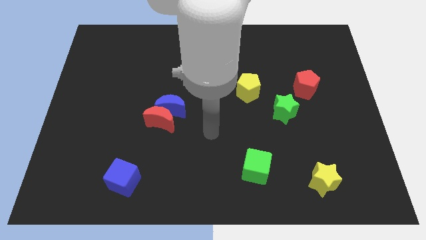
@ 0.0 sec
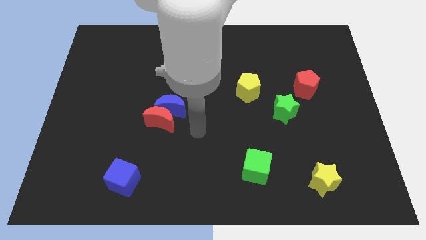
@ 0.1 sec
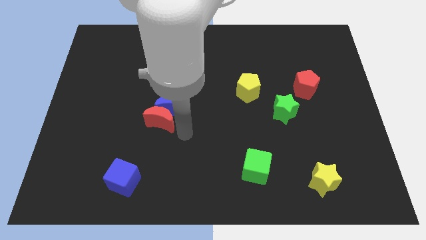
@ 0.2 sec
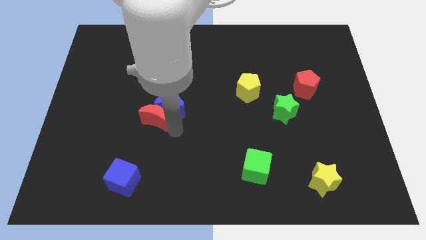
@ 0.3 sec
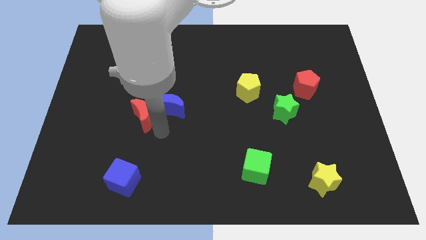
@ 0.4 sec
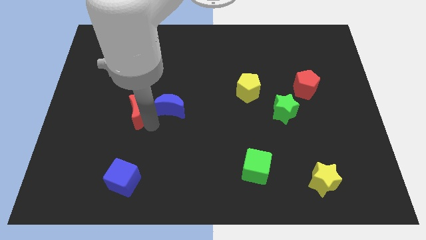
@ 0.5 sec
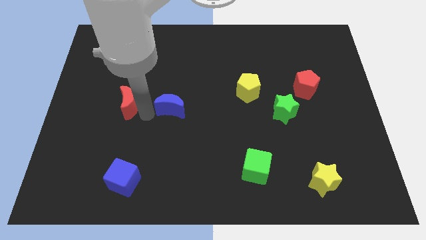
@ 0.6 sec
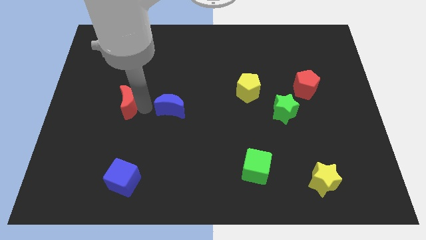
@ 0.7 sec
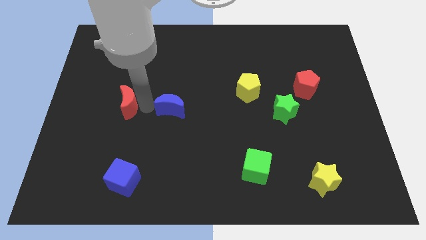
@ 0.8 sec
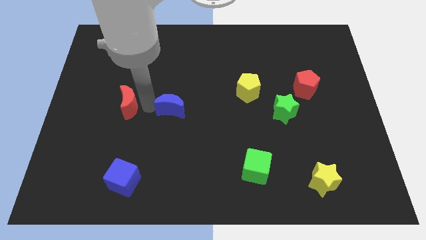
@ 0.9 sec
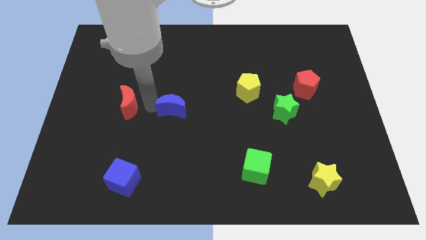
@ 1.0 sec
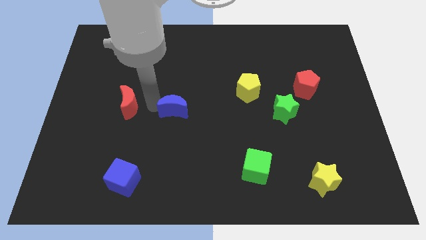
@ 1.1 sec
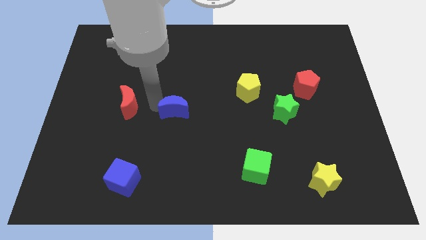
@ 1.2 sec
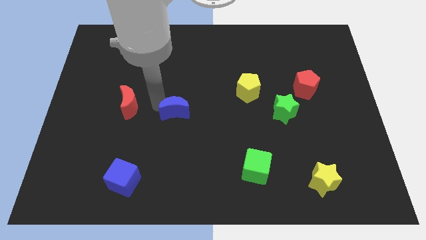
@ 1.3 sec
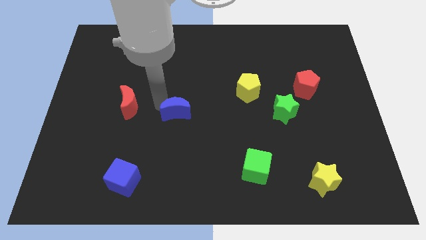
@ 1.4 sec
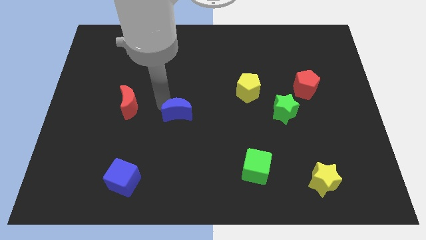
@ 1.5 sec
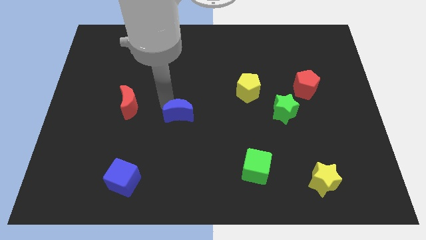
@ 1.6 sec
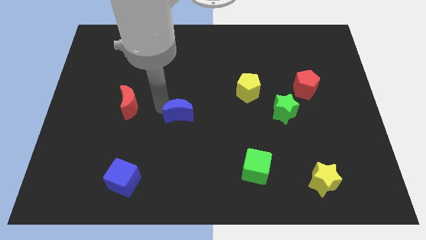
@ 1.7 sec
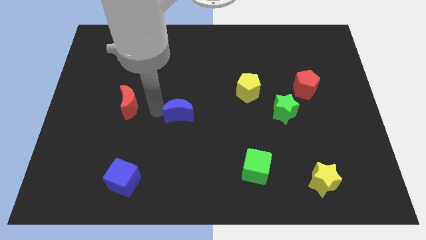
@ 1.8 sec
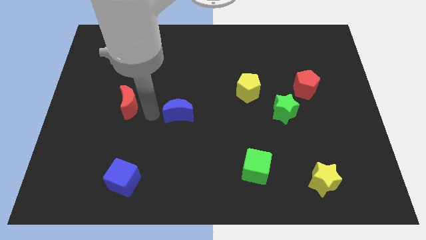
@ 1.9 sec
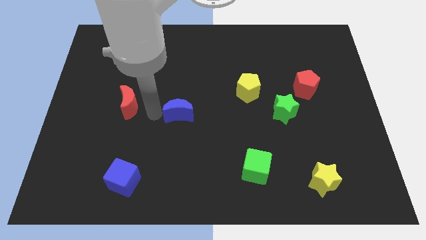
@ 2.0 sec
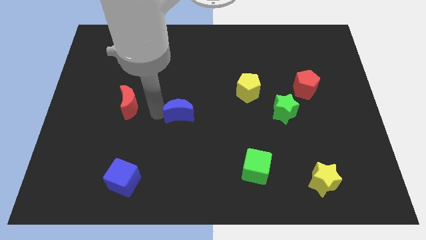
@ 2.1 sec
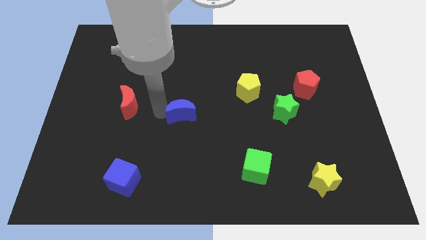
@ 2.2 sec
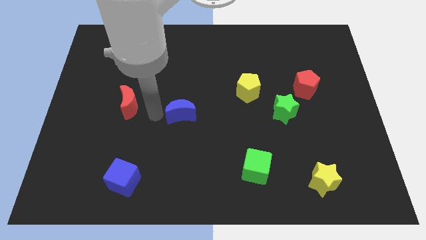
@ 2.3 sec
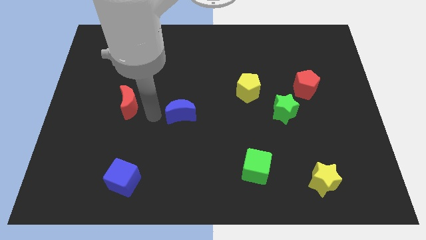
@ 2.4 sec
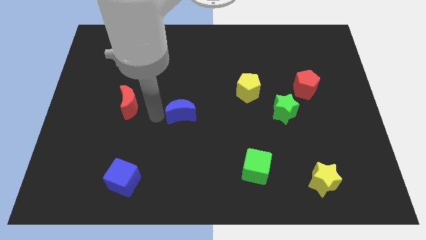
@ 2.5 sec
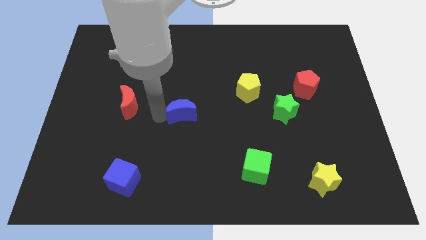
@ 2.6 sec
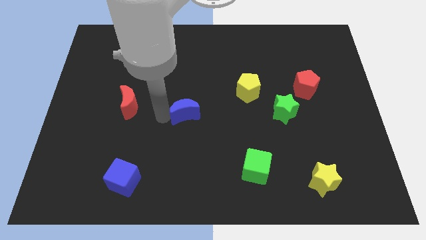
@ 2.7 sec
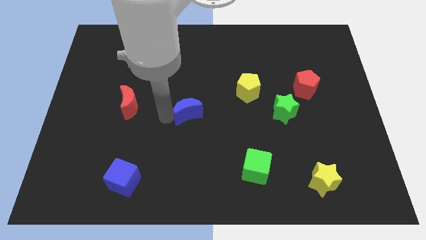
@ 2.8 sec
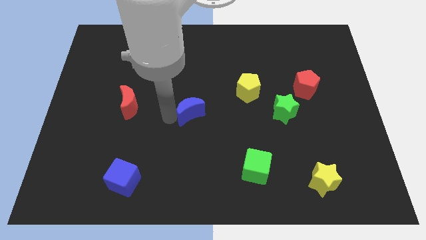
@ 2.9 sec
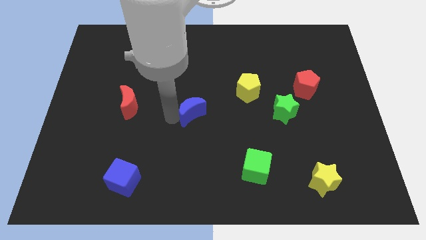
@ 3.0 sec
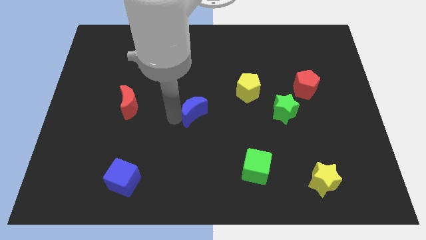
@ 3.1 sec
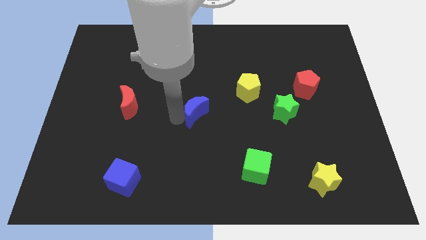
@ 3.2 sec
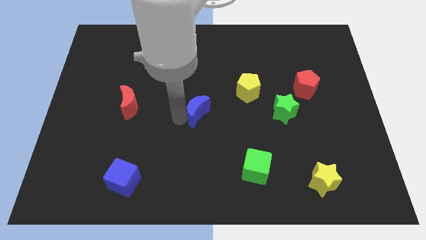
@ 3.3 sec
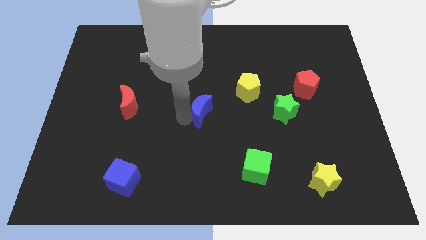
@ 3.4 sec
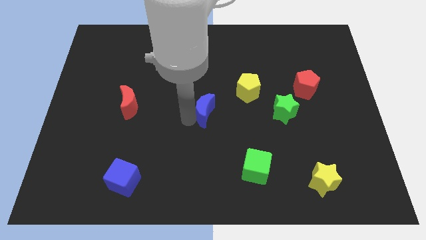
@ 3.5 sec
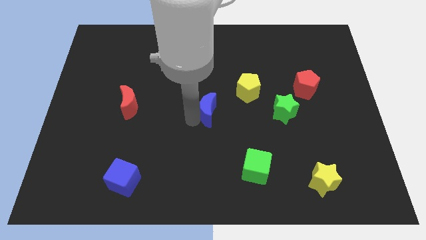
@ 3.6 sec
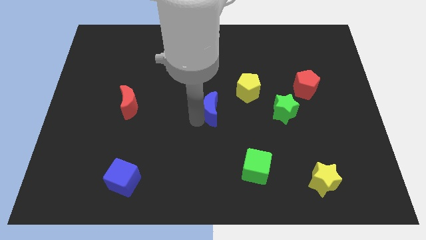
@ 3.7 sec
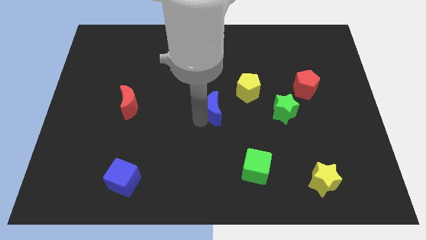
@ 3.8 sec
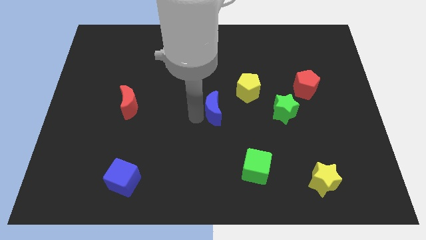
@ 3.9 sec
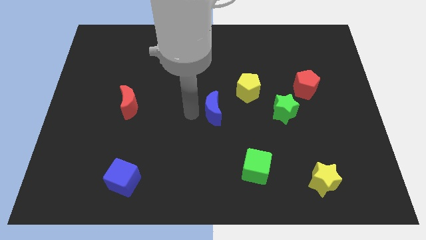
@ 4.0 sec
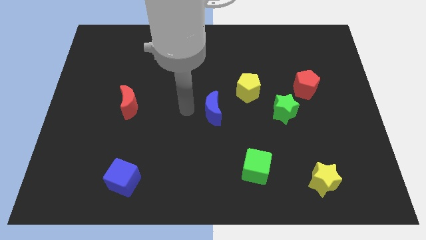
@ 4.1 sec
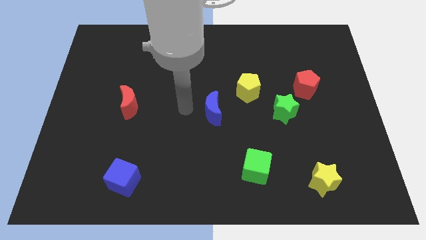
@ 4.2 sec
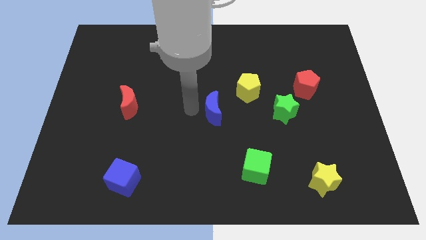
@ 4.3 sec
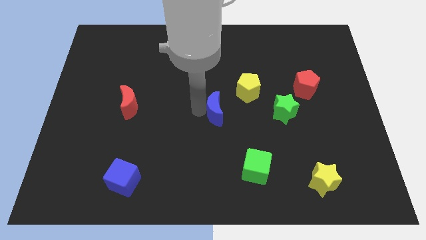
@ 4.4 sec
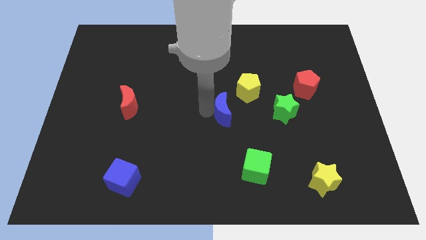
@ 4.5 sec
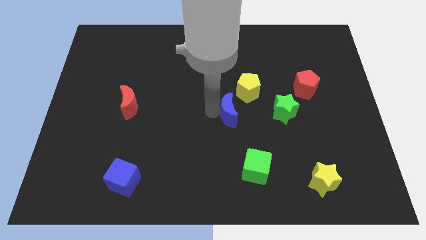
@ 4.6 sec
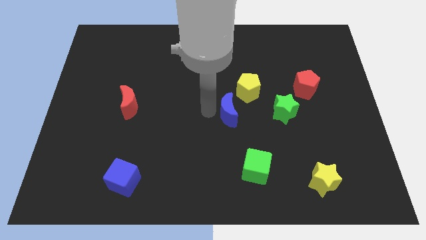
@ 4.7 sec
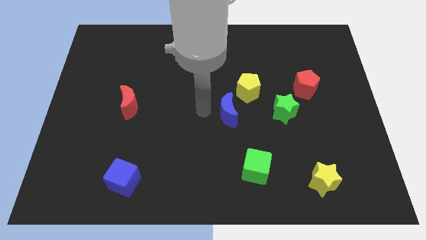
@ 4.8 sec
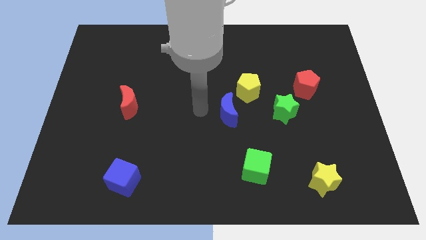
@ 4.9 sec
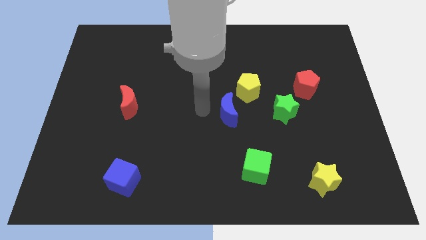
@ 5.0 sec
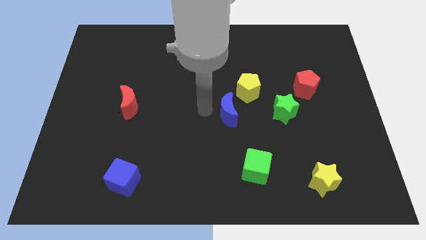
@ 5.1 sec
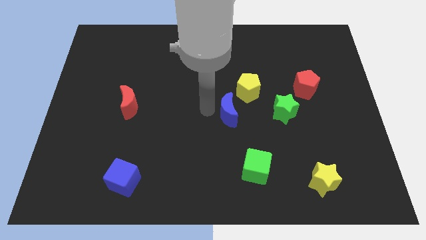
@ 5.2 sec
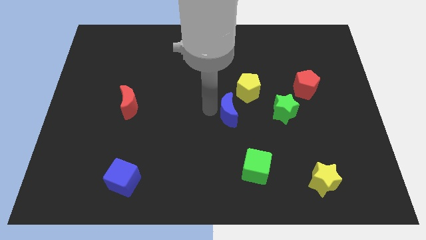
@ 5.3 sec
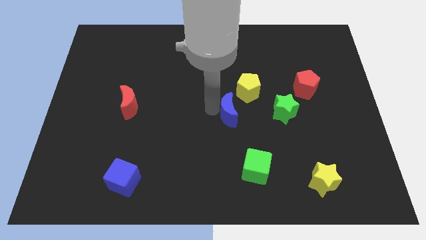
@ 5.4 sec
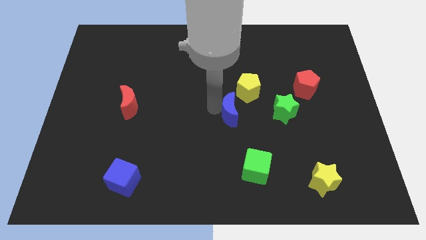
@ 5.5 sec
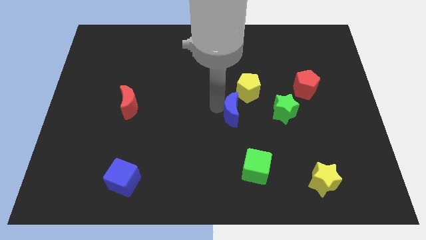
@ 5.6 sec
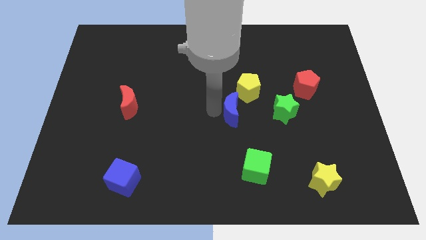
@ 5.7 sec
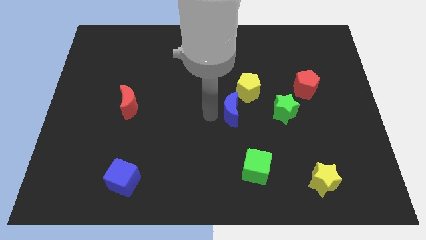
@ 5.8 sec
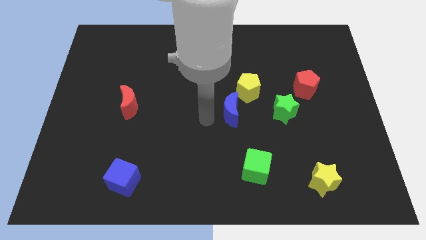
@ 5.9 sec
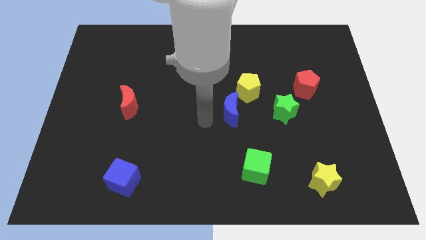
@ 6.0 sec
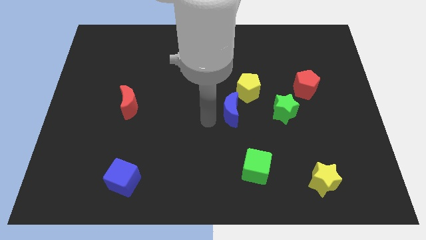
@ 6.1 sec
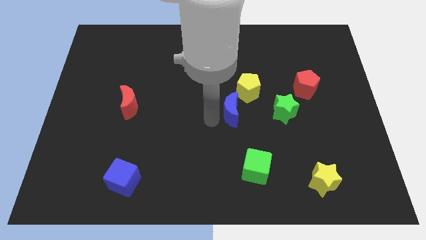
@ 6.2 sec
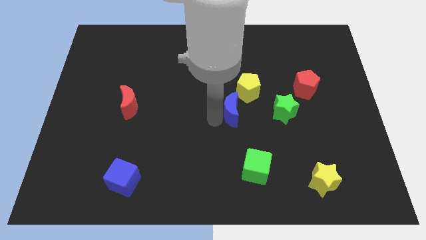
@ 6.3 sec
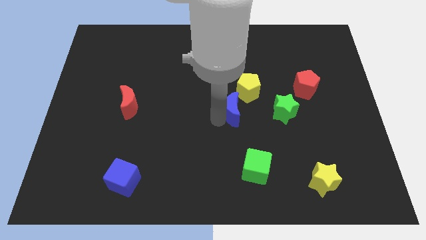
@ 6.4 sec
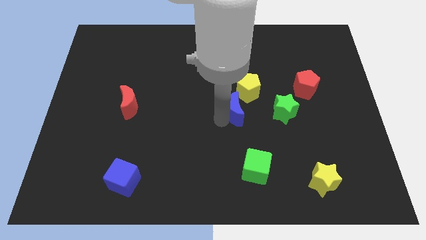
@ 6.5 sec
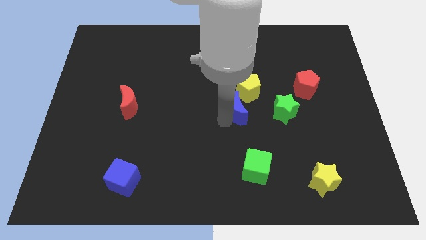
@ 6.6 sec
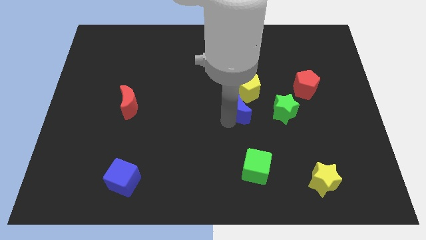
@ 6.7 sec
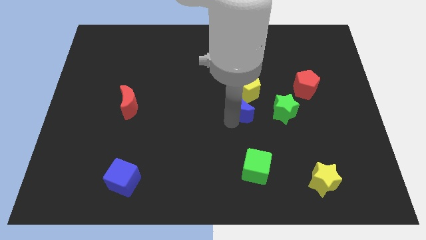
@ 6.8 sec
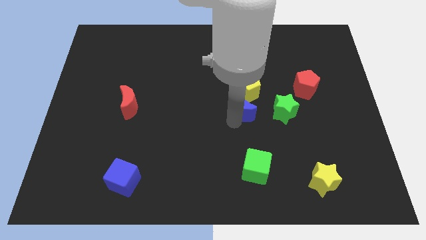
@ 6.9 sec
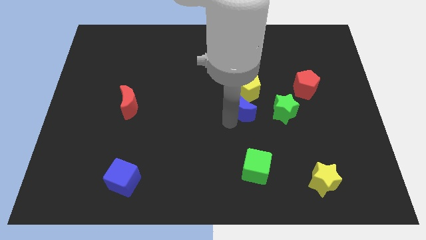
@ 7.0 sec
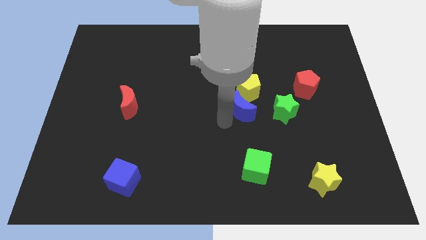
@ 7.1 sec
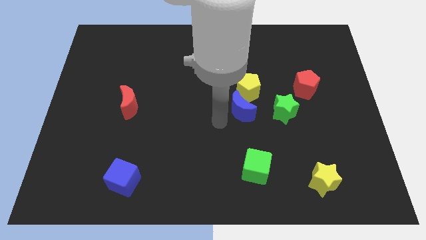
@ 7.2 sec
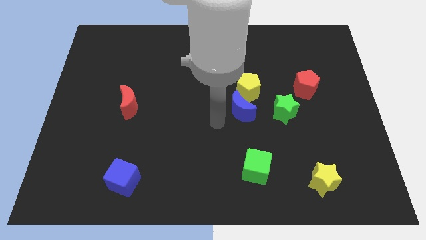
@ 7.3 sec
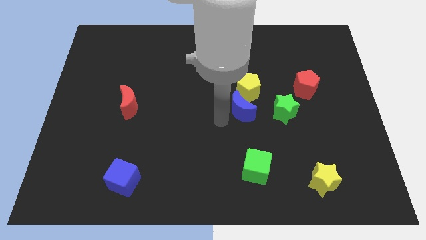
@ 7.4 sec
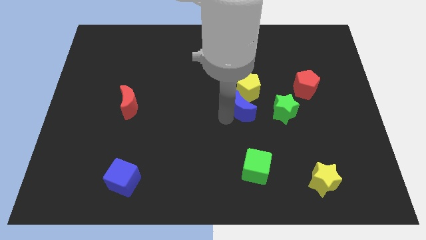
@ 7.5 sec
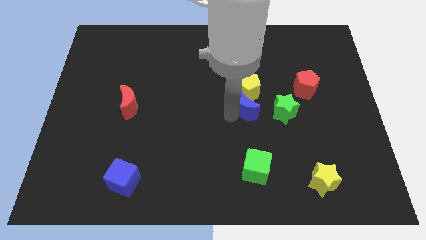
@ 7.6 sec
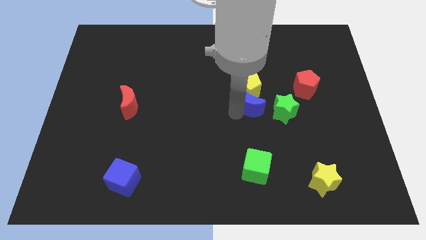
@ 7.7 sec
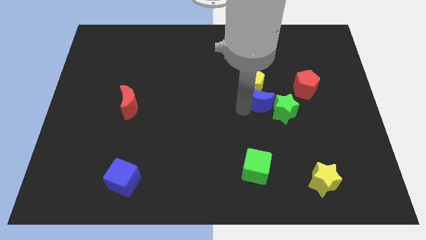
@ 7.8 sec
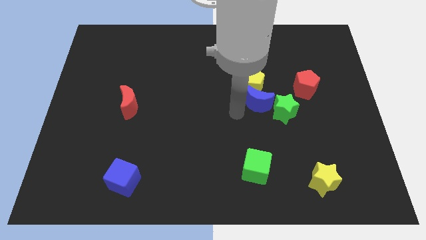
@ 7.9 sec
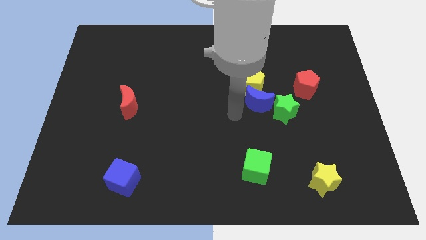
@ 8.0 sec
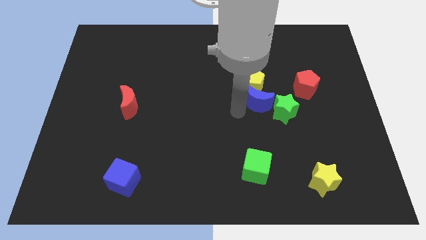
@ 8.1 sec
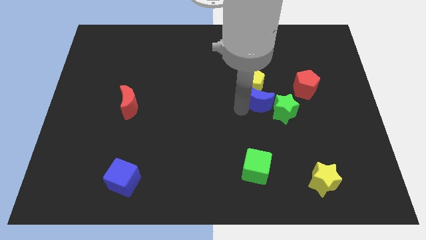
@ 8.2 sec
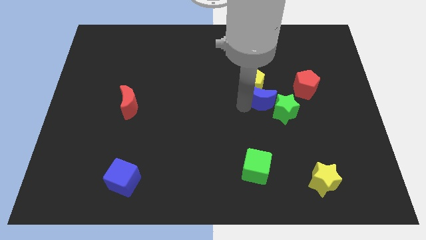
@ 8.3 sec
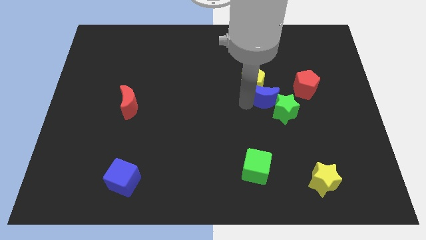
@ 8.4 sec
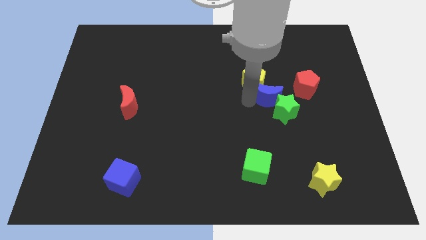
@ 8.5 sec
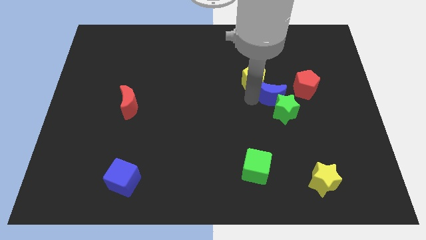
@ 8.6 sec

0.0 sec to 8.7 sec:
put the blue moon to the right of the yellow pentagon
